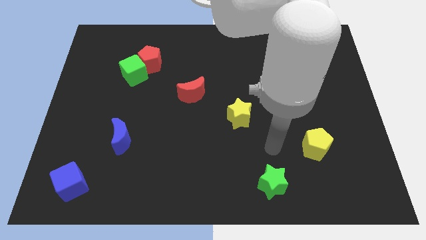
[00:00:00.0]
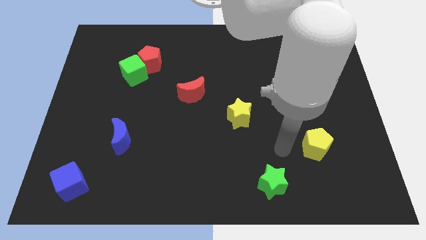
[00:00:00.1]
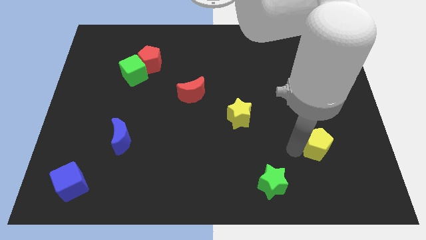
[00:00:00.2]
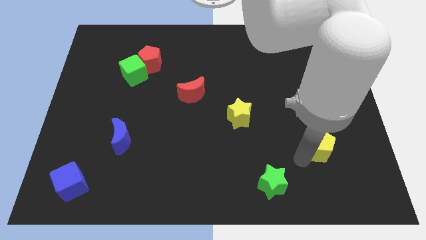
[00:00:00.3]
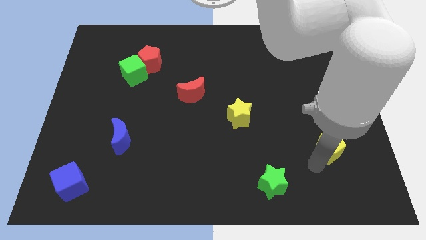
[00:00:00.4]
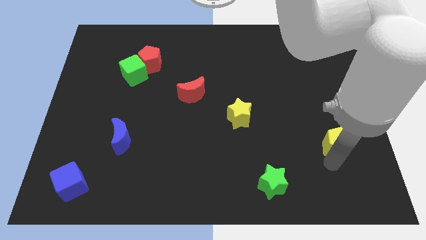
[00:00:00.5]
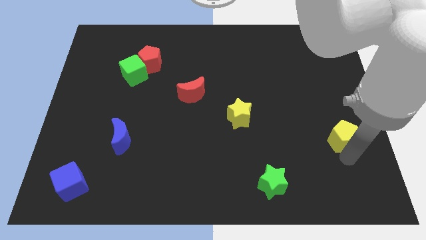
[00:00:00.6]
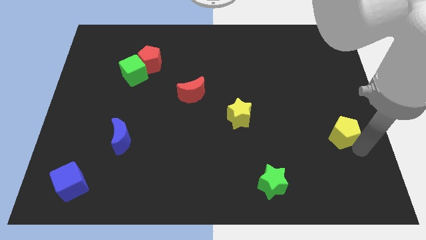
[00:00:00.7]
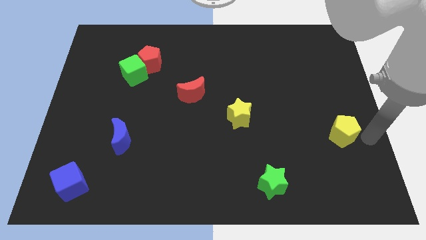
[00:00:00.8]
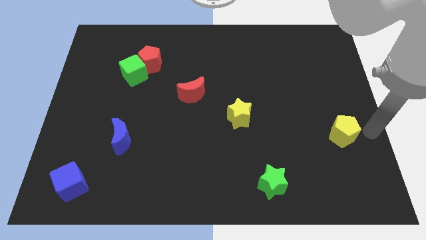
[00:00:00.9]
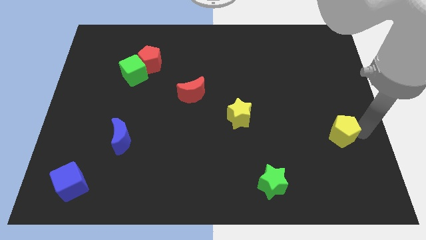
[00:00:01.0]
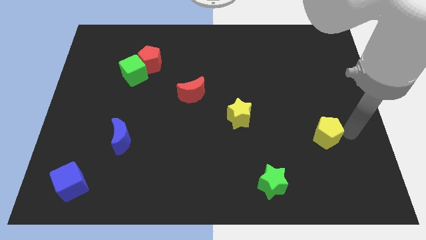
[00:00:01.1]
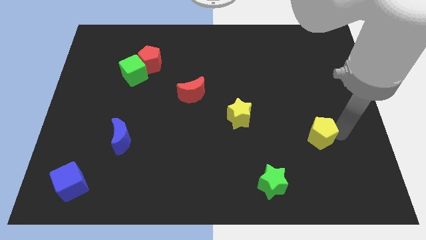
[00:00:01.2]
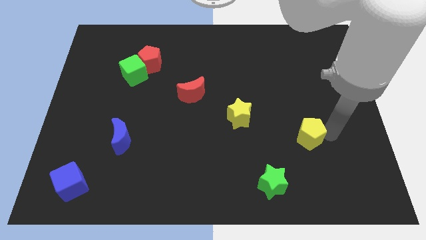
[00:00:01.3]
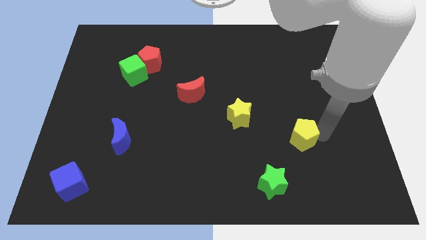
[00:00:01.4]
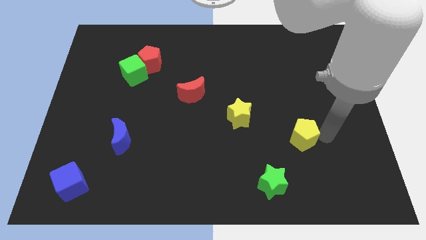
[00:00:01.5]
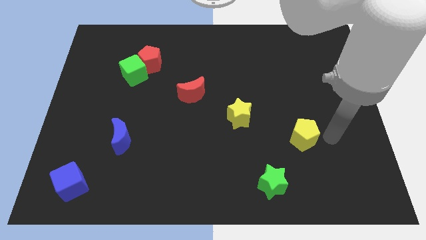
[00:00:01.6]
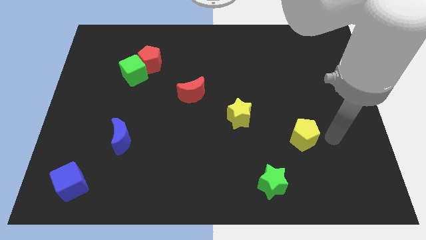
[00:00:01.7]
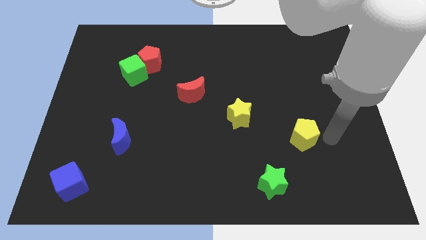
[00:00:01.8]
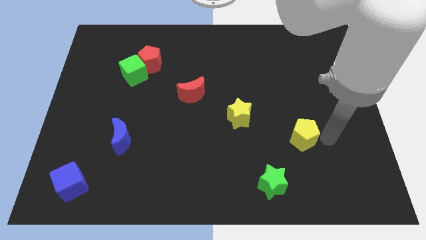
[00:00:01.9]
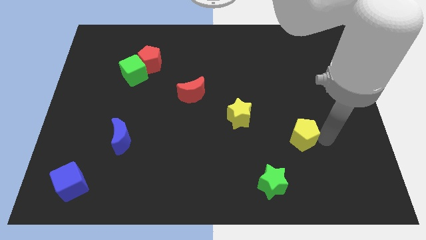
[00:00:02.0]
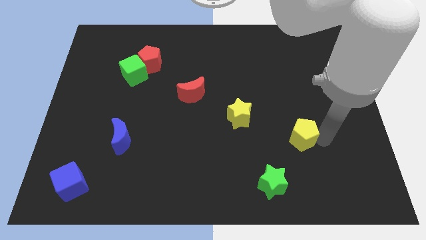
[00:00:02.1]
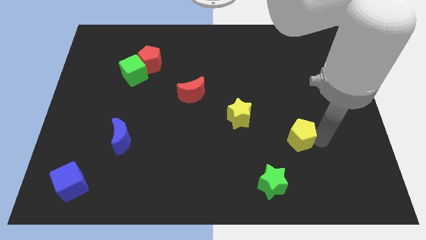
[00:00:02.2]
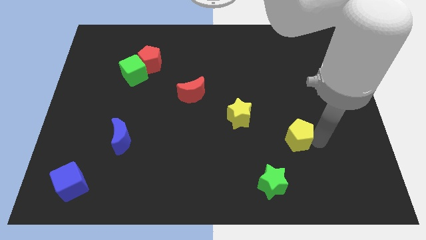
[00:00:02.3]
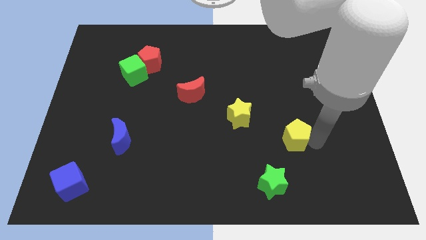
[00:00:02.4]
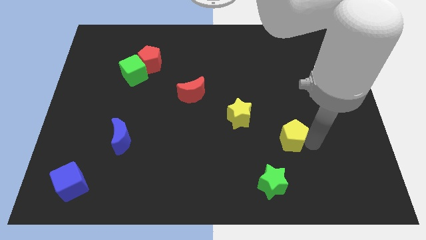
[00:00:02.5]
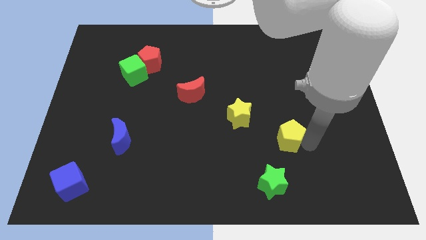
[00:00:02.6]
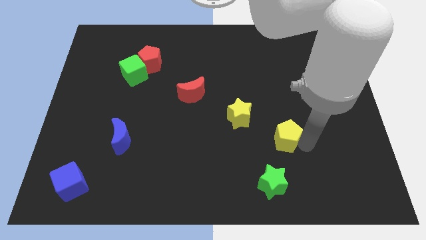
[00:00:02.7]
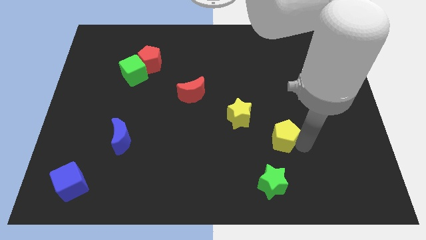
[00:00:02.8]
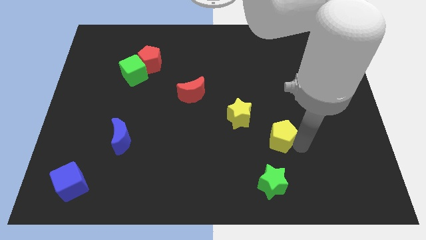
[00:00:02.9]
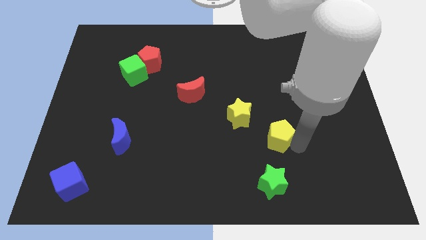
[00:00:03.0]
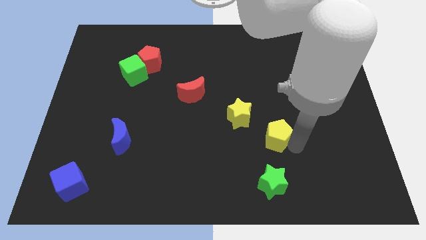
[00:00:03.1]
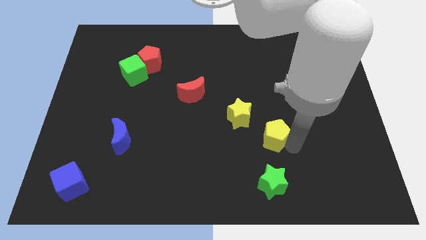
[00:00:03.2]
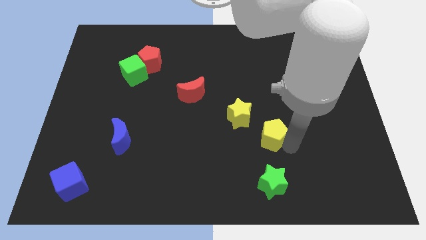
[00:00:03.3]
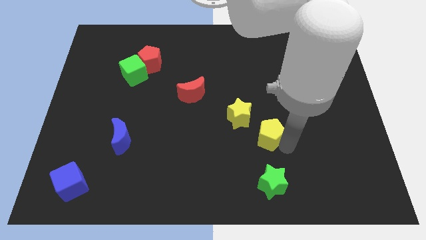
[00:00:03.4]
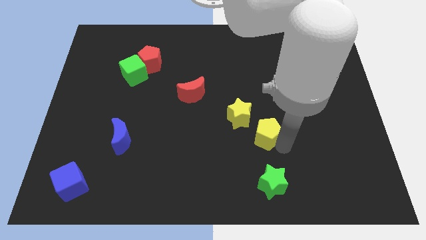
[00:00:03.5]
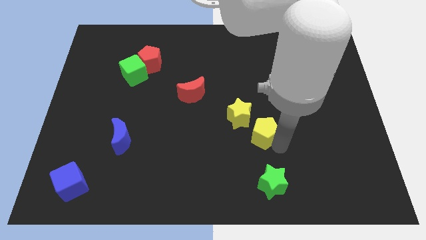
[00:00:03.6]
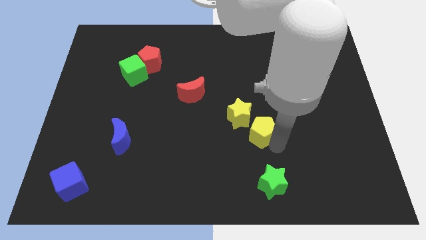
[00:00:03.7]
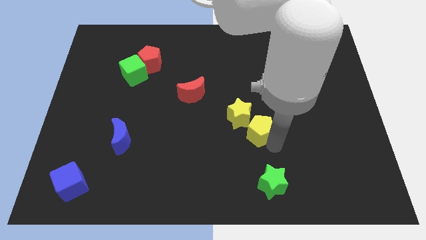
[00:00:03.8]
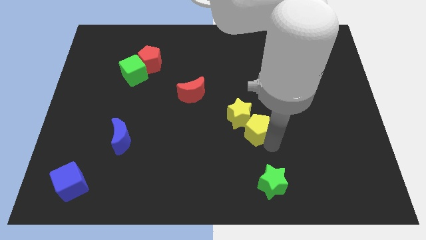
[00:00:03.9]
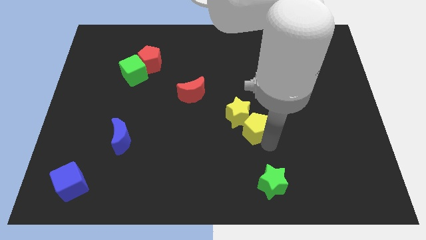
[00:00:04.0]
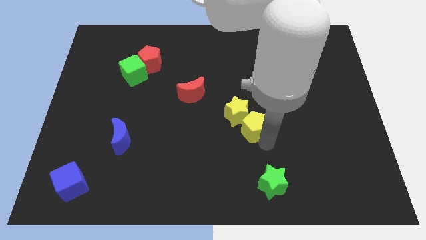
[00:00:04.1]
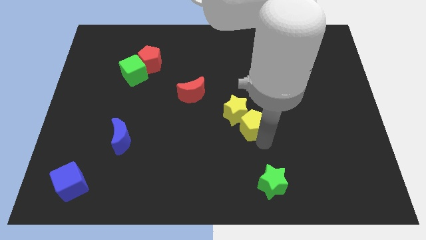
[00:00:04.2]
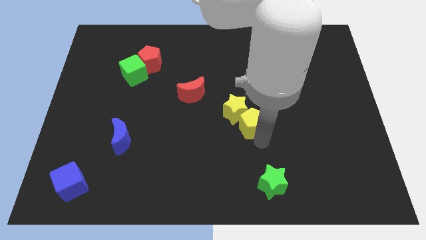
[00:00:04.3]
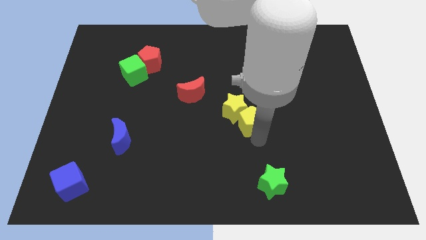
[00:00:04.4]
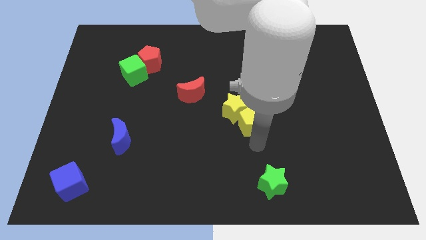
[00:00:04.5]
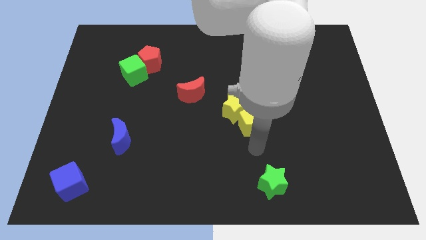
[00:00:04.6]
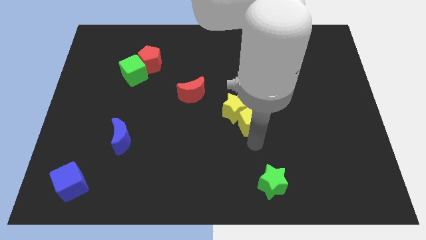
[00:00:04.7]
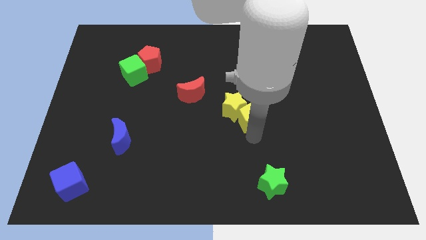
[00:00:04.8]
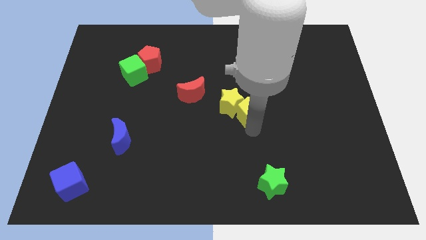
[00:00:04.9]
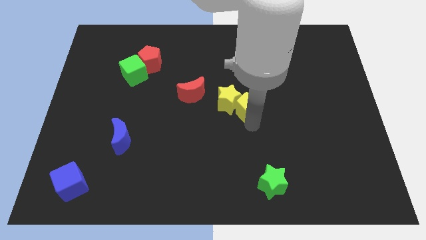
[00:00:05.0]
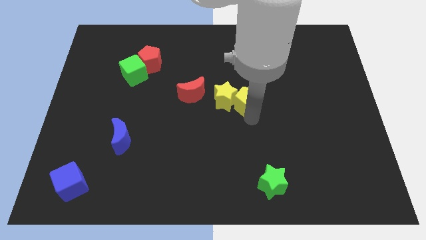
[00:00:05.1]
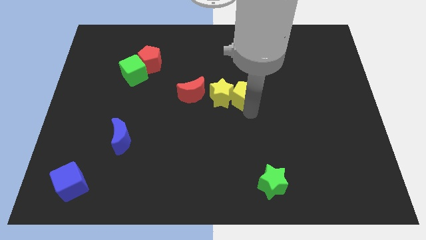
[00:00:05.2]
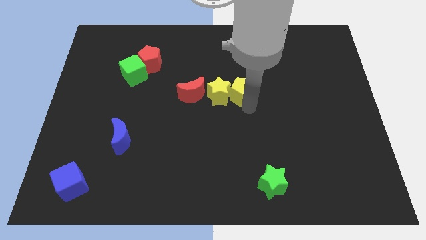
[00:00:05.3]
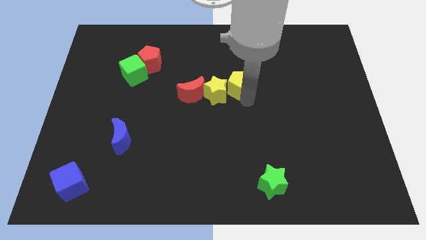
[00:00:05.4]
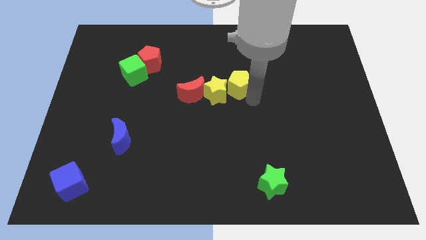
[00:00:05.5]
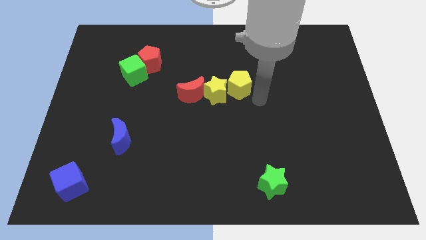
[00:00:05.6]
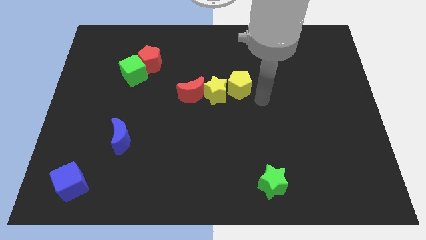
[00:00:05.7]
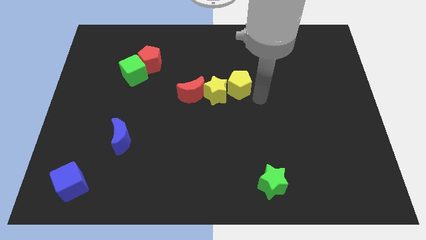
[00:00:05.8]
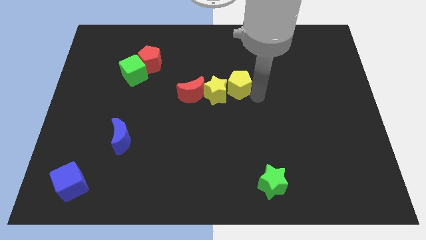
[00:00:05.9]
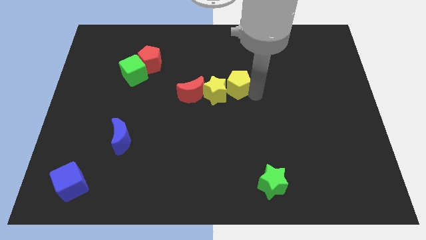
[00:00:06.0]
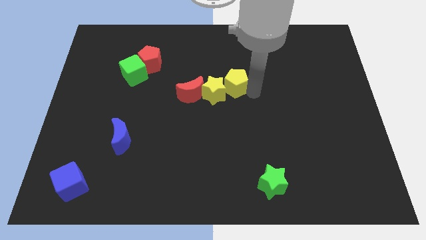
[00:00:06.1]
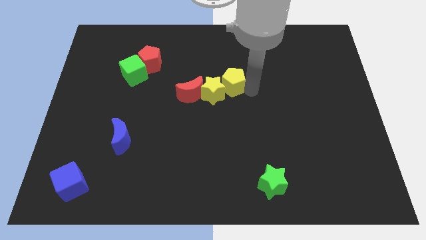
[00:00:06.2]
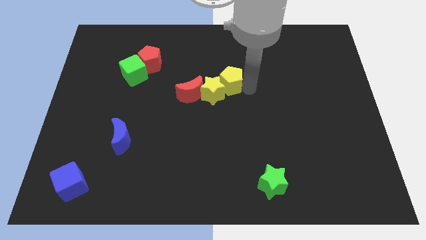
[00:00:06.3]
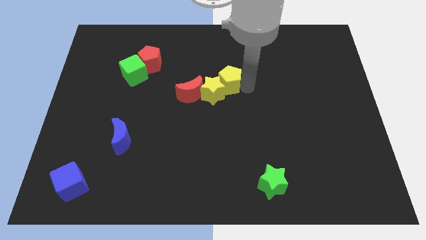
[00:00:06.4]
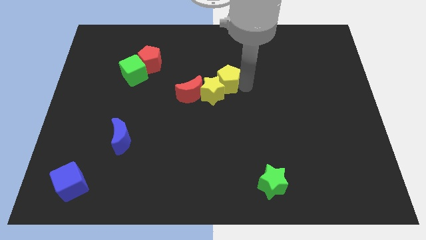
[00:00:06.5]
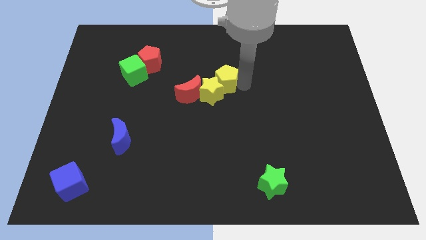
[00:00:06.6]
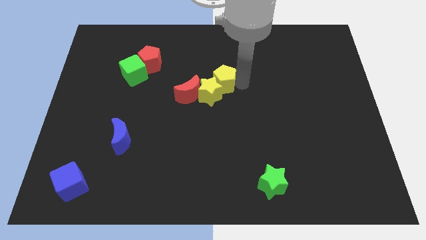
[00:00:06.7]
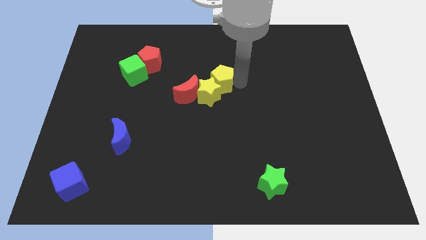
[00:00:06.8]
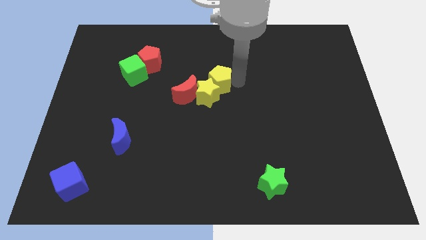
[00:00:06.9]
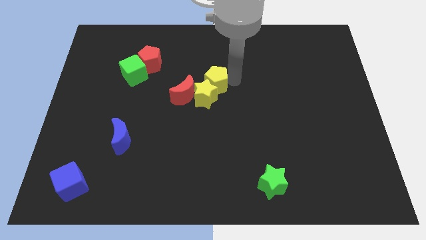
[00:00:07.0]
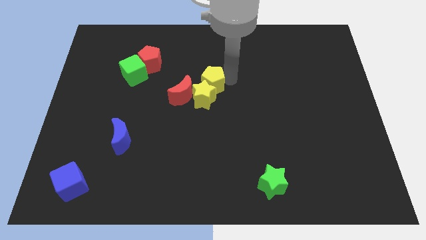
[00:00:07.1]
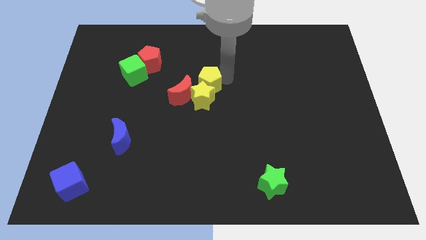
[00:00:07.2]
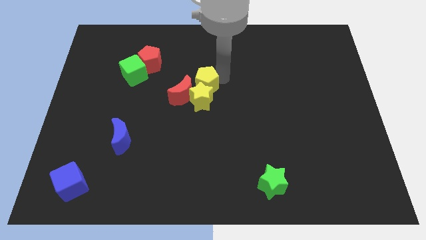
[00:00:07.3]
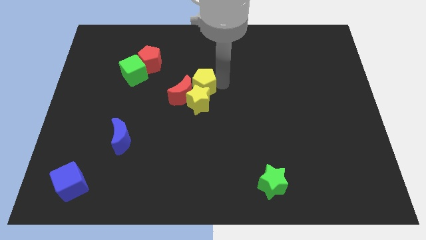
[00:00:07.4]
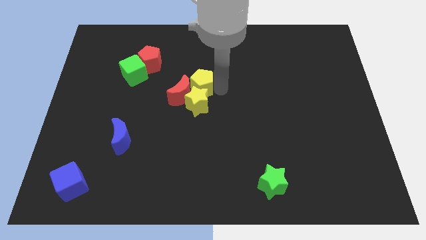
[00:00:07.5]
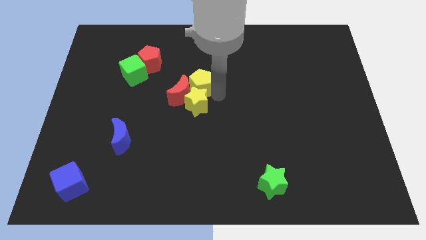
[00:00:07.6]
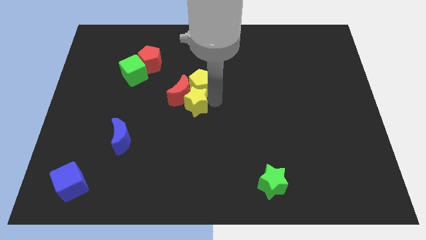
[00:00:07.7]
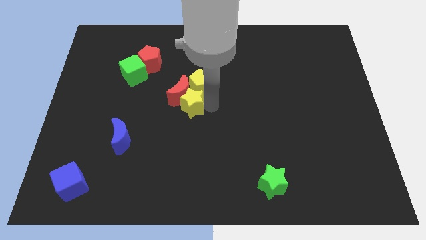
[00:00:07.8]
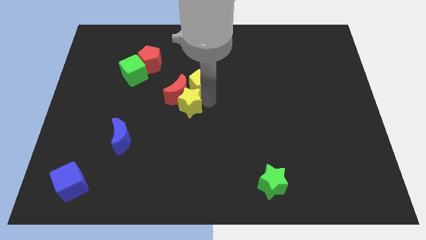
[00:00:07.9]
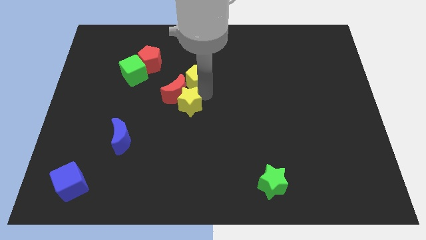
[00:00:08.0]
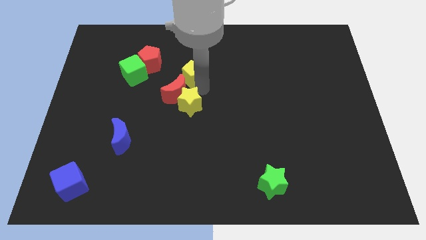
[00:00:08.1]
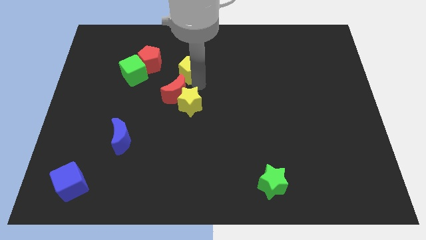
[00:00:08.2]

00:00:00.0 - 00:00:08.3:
put the yellow pentagon to the right of the red pentagon
